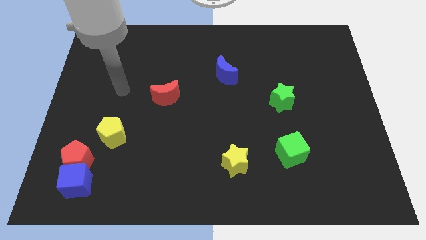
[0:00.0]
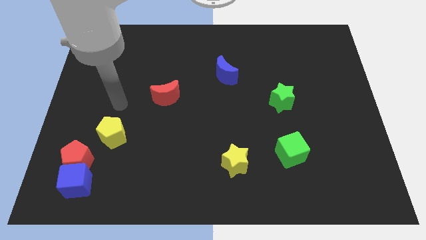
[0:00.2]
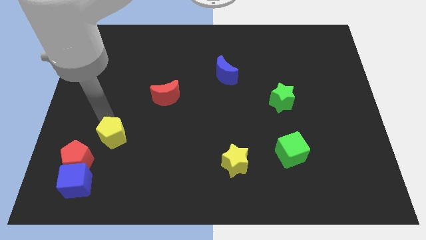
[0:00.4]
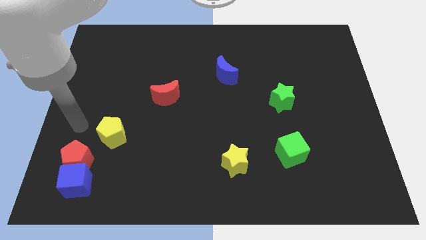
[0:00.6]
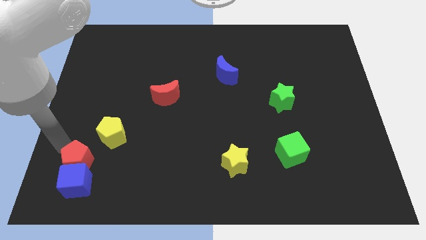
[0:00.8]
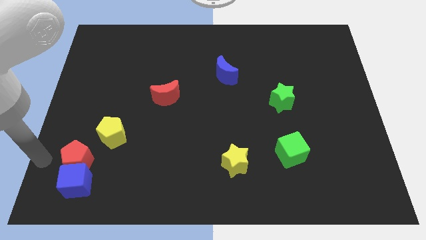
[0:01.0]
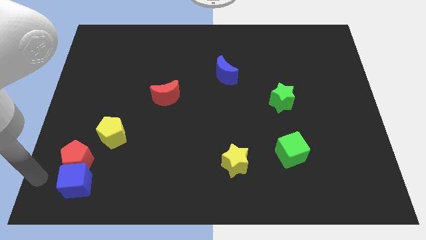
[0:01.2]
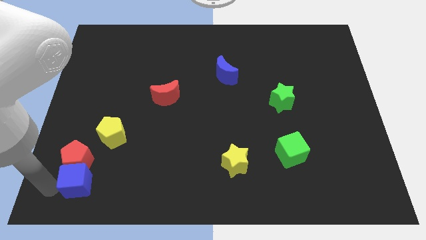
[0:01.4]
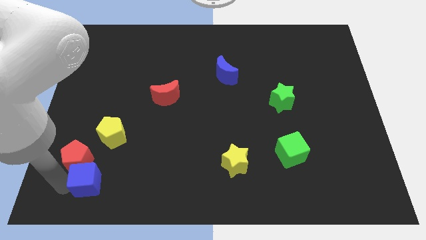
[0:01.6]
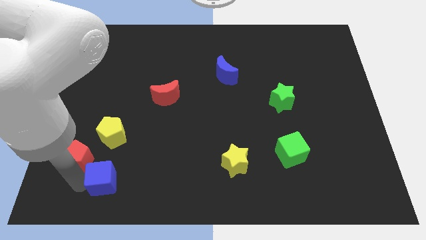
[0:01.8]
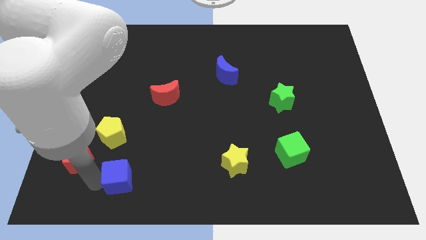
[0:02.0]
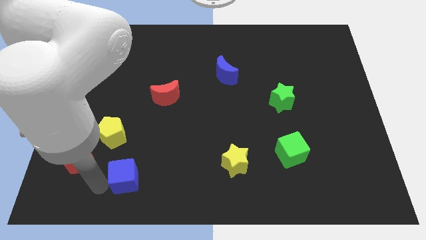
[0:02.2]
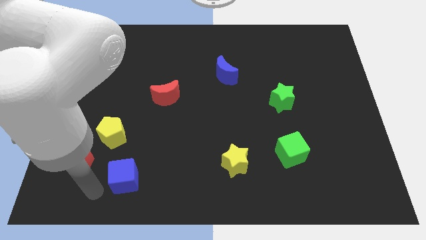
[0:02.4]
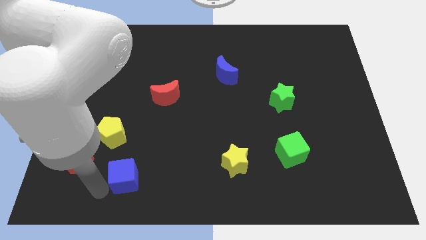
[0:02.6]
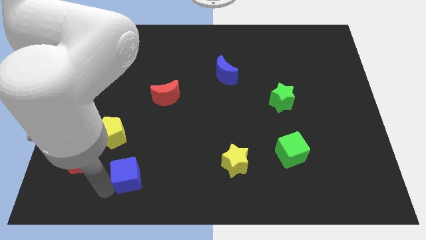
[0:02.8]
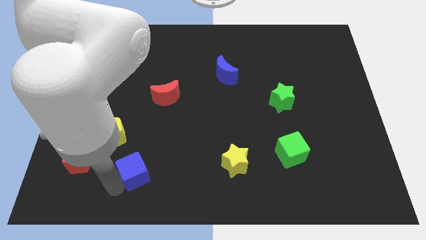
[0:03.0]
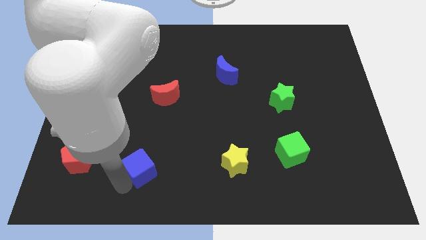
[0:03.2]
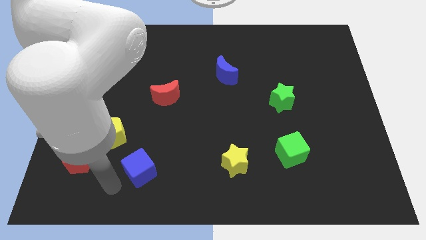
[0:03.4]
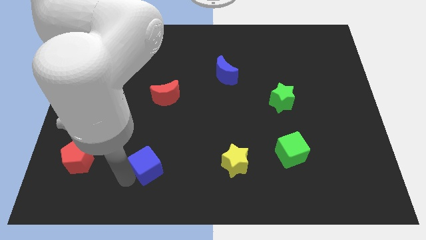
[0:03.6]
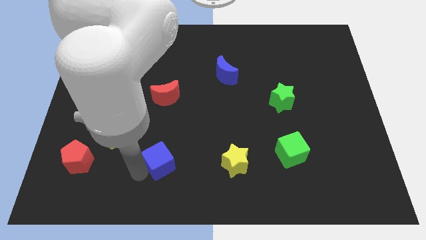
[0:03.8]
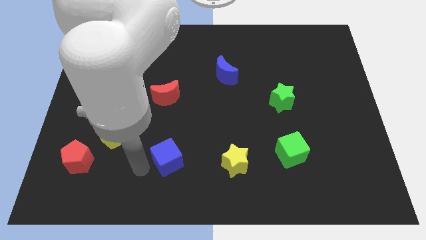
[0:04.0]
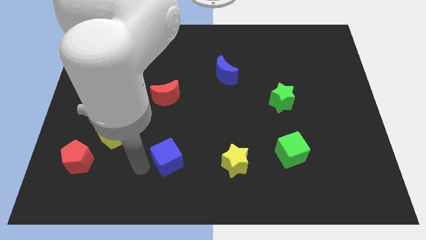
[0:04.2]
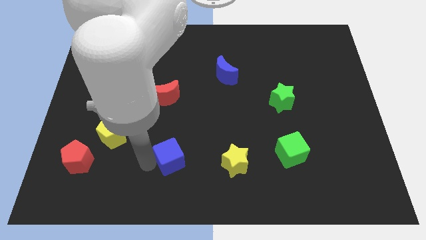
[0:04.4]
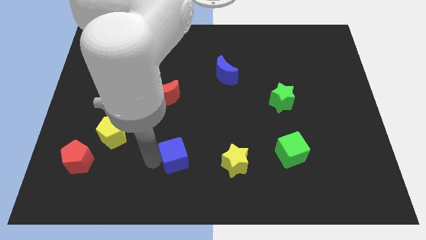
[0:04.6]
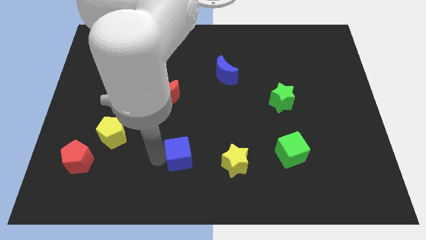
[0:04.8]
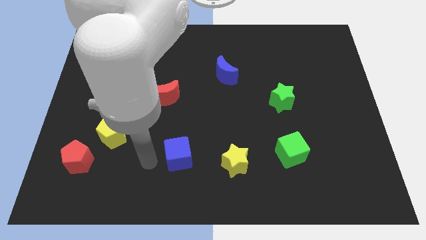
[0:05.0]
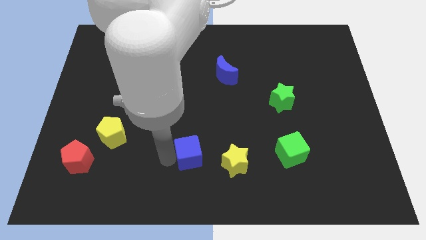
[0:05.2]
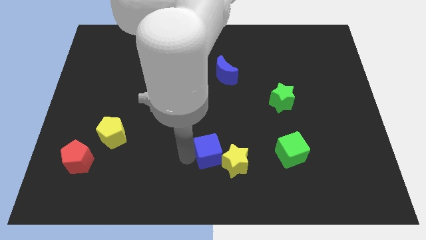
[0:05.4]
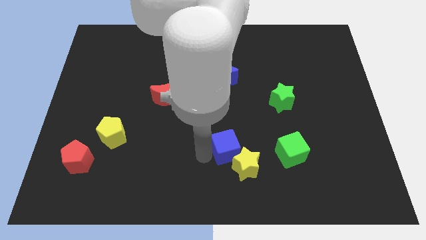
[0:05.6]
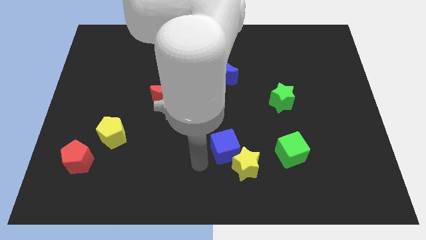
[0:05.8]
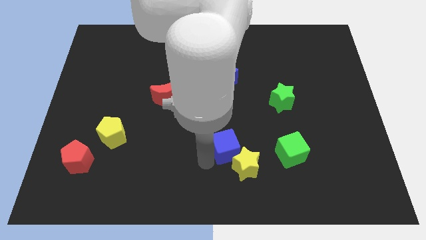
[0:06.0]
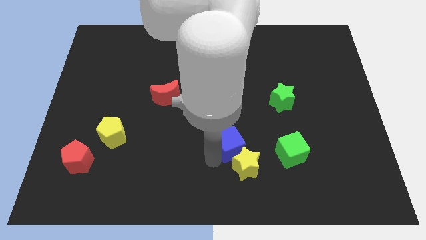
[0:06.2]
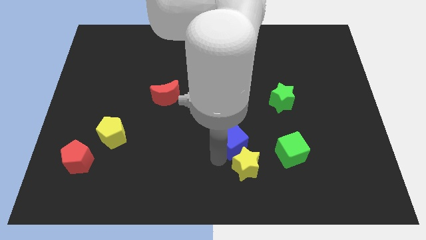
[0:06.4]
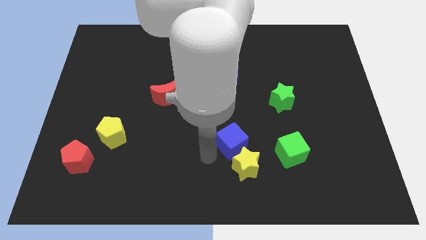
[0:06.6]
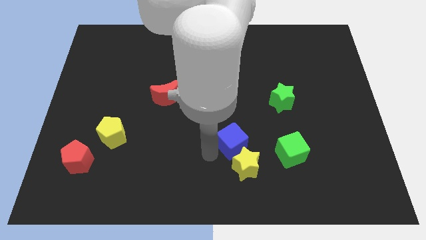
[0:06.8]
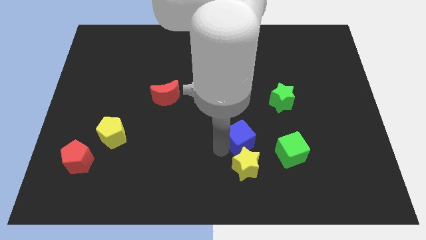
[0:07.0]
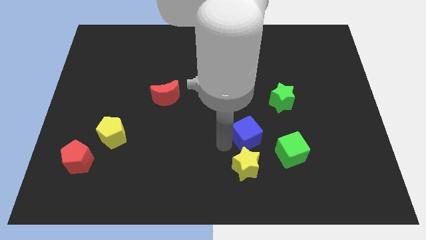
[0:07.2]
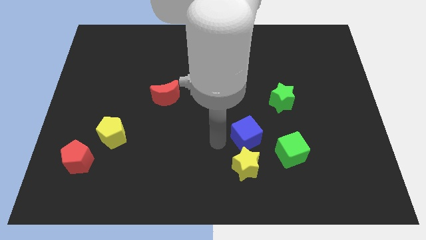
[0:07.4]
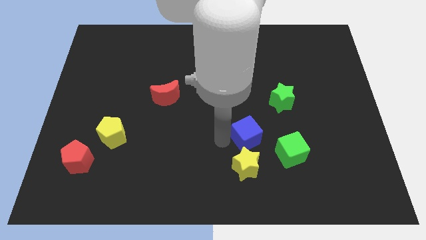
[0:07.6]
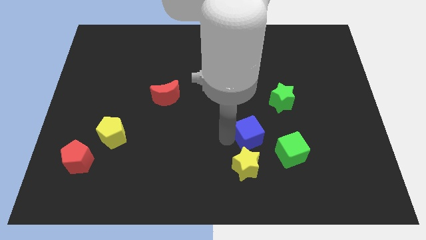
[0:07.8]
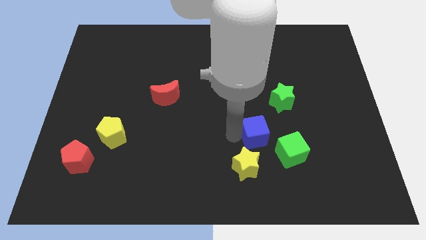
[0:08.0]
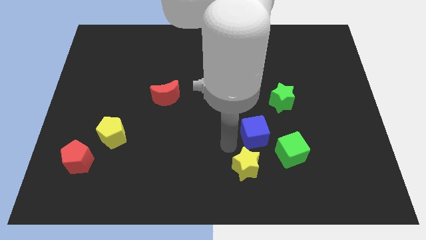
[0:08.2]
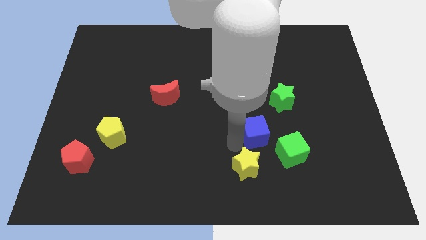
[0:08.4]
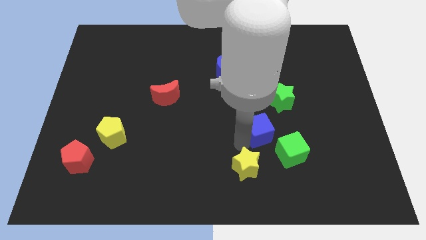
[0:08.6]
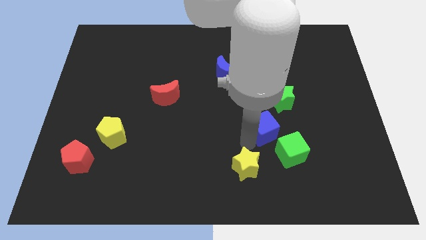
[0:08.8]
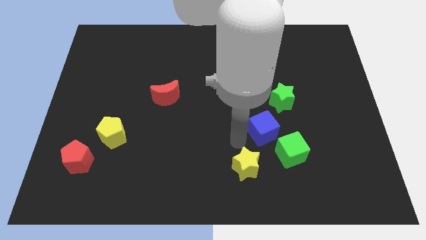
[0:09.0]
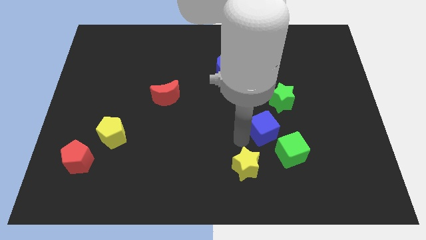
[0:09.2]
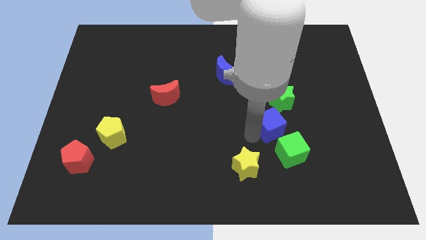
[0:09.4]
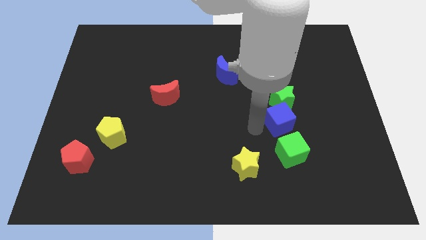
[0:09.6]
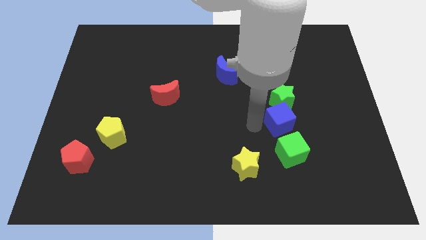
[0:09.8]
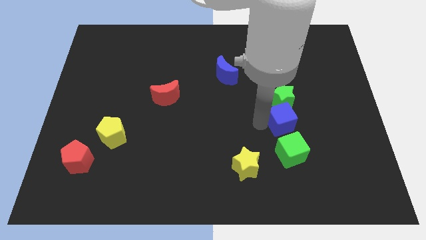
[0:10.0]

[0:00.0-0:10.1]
slide the blue cube to the bottom right side of the green star

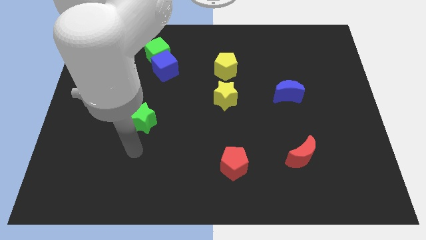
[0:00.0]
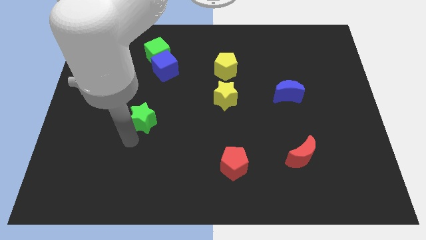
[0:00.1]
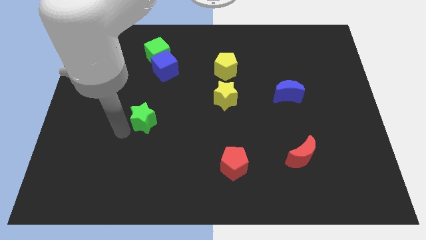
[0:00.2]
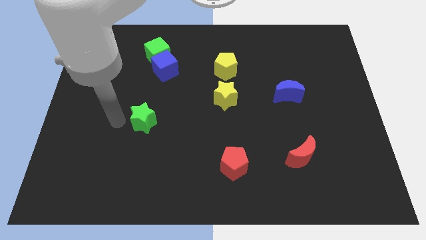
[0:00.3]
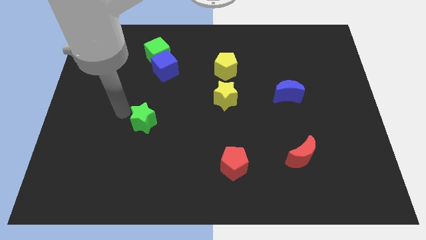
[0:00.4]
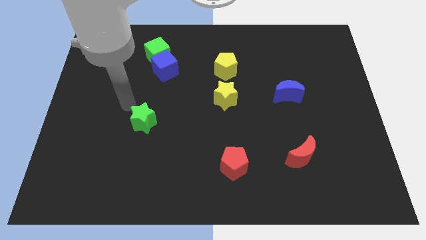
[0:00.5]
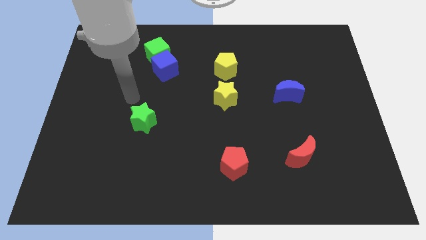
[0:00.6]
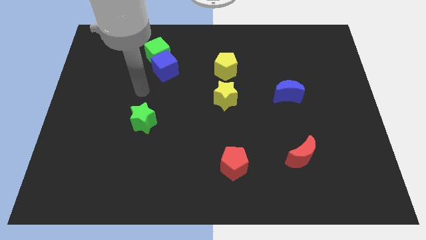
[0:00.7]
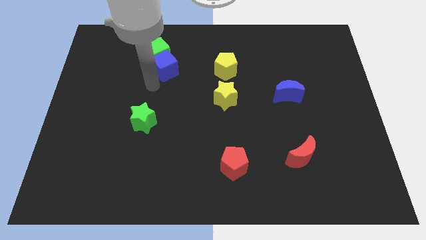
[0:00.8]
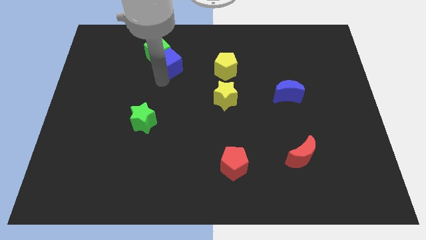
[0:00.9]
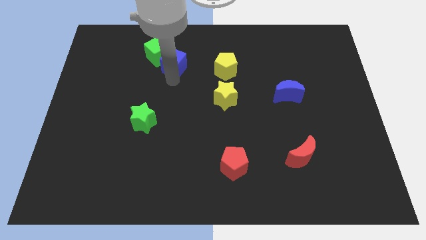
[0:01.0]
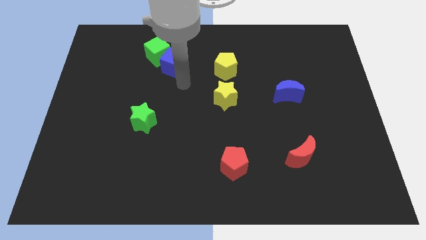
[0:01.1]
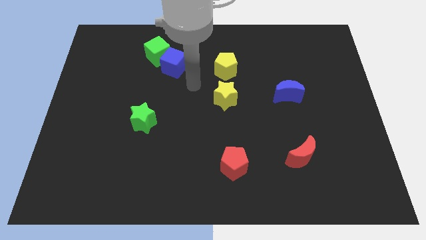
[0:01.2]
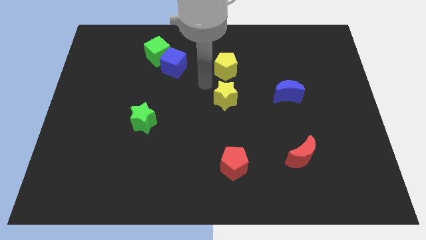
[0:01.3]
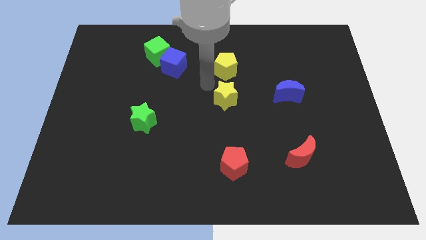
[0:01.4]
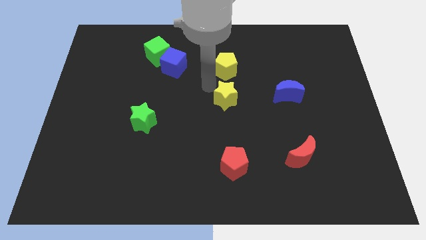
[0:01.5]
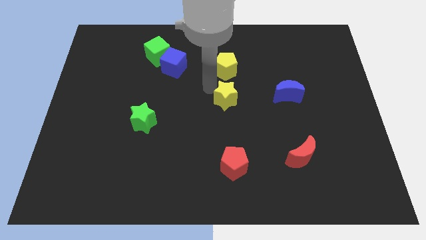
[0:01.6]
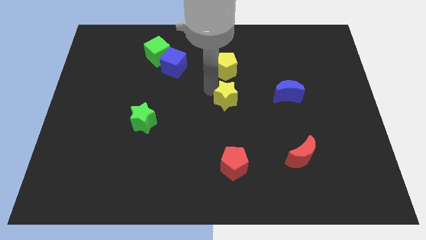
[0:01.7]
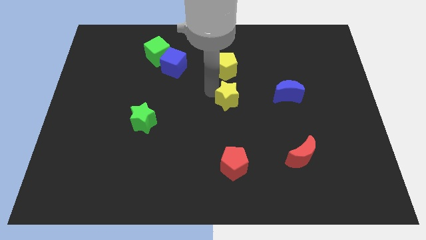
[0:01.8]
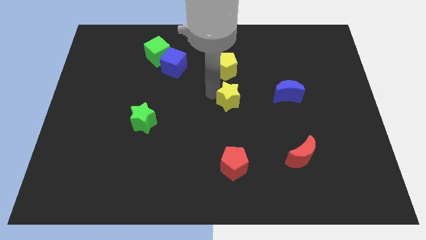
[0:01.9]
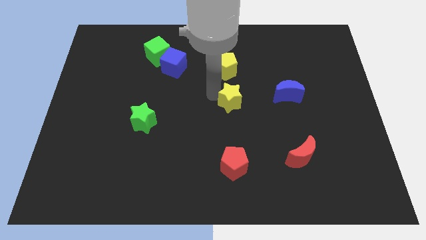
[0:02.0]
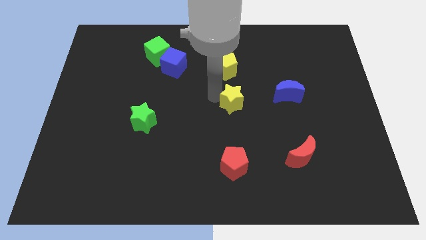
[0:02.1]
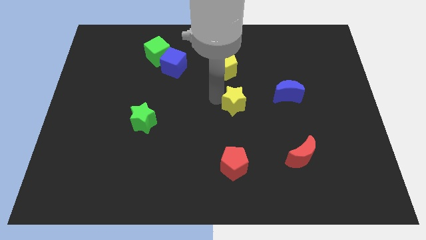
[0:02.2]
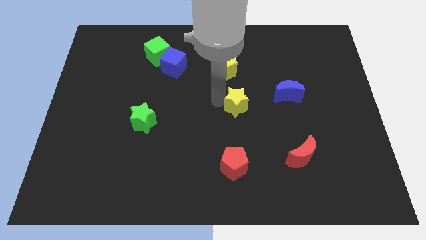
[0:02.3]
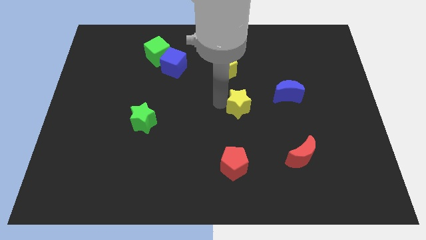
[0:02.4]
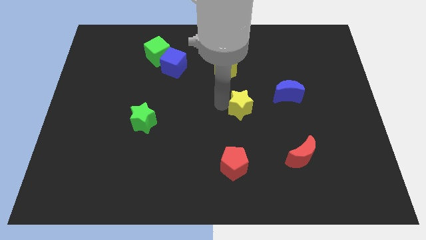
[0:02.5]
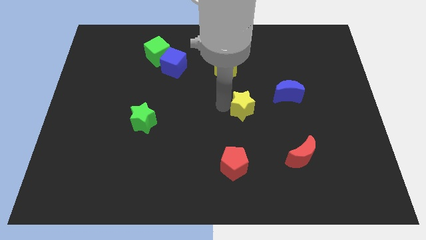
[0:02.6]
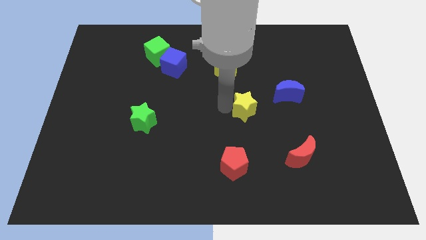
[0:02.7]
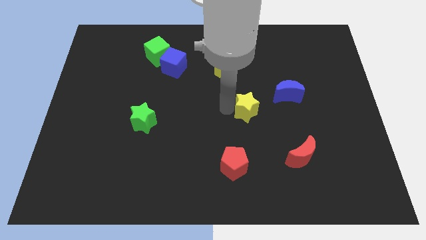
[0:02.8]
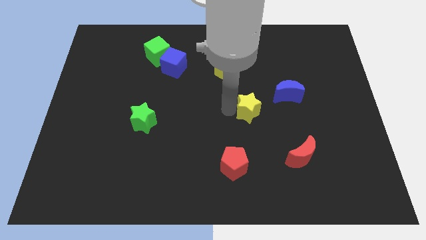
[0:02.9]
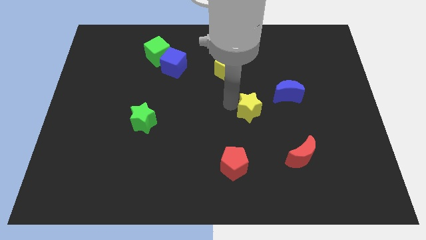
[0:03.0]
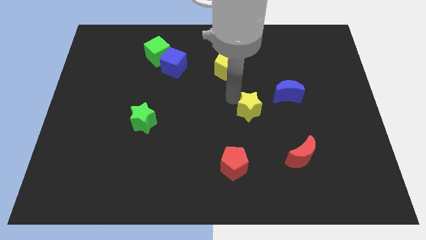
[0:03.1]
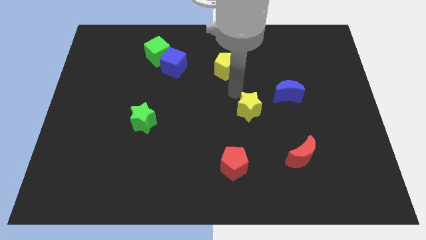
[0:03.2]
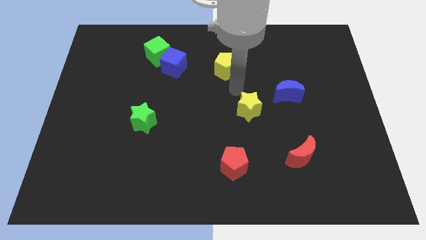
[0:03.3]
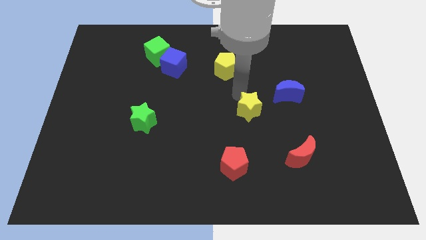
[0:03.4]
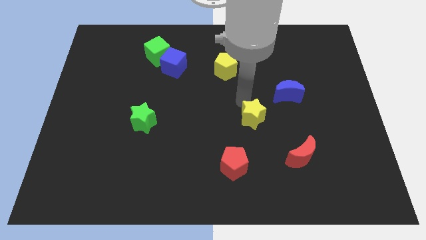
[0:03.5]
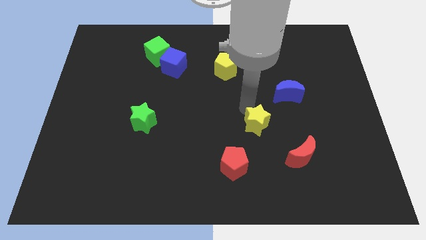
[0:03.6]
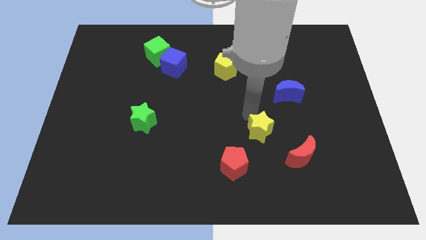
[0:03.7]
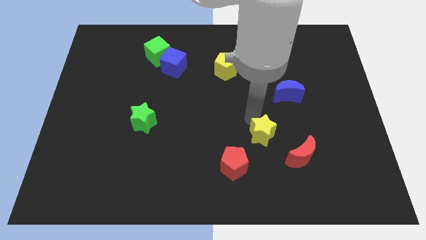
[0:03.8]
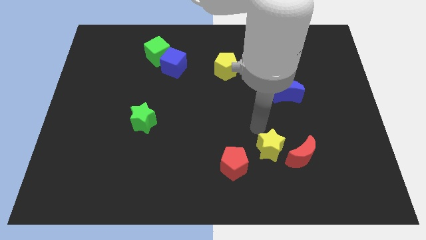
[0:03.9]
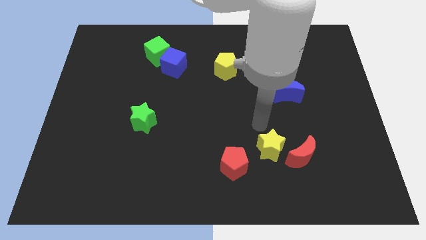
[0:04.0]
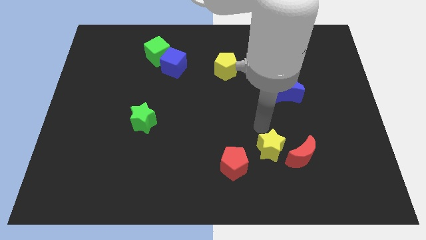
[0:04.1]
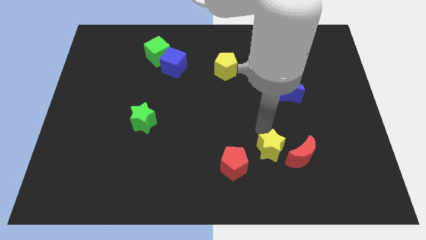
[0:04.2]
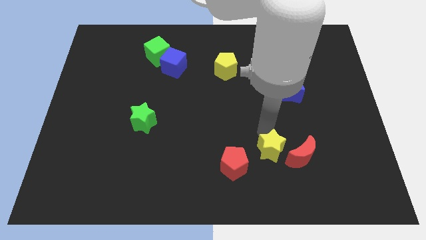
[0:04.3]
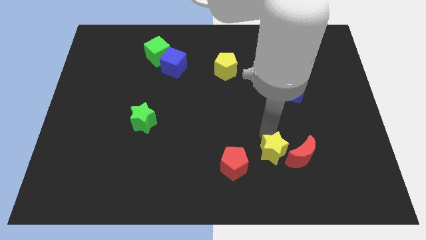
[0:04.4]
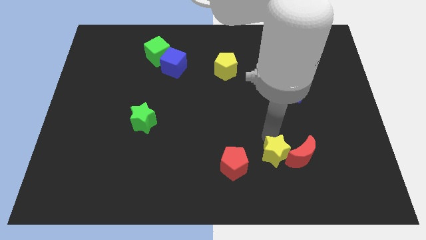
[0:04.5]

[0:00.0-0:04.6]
slide the yellow star to the bottom left side of the red moon
